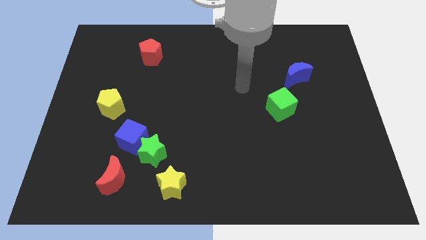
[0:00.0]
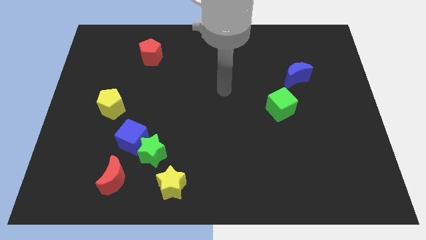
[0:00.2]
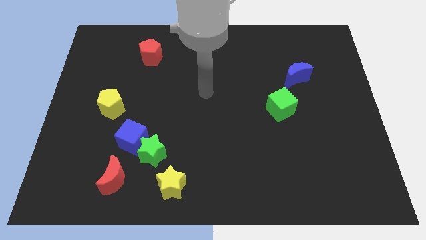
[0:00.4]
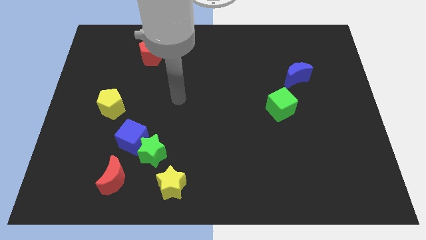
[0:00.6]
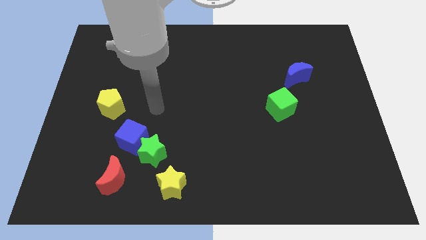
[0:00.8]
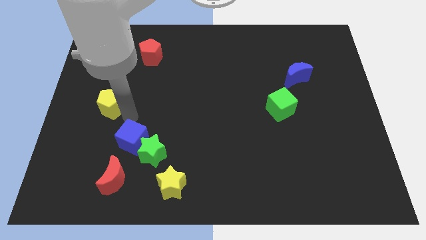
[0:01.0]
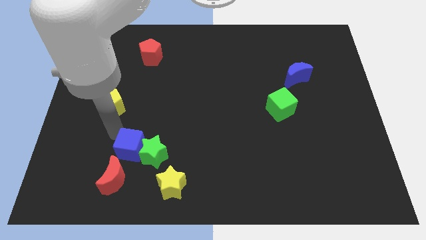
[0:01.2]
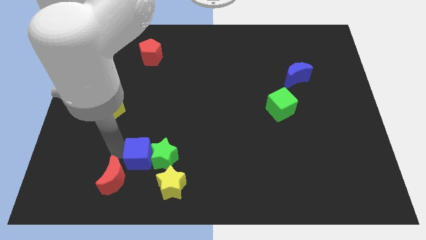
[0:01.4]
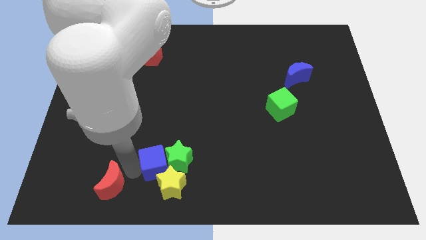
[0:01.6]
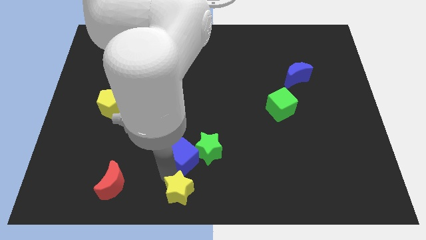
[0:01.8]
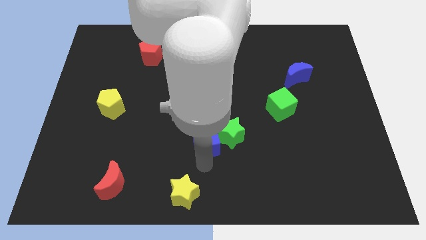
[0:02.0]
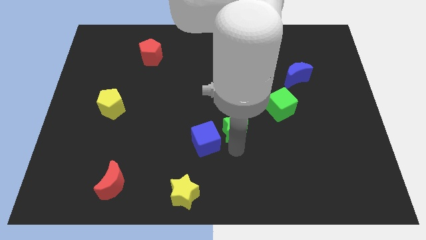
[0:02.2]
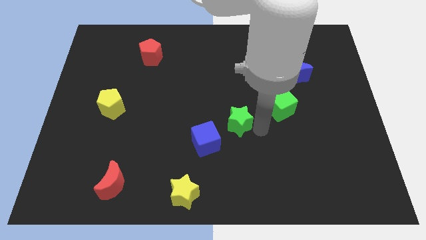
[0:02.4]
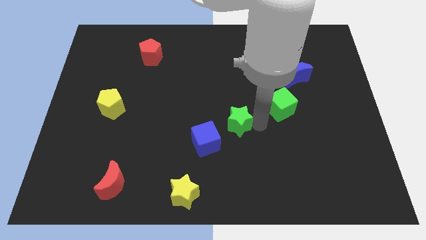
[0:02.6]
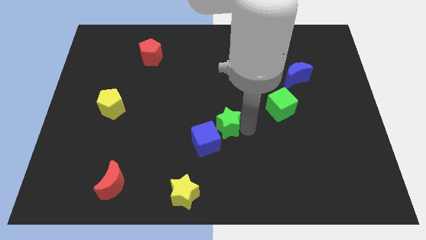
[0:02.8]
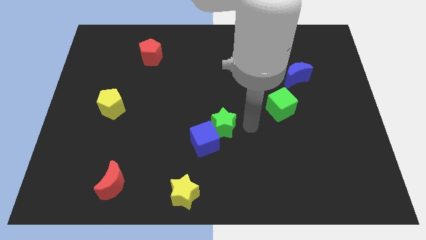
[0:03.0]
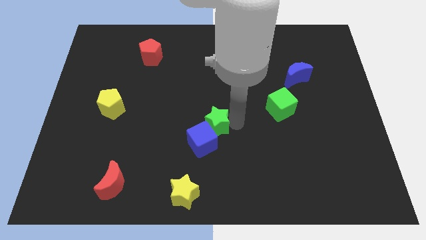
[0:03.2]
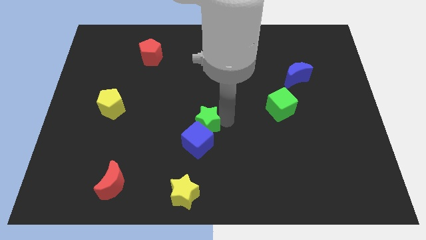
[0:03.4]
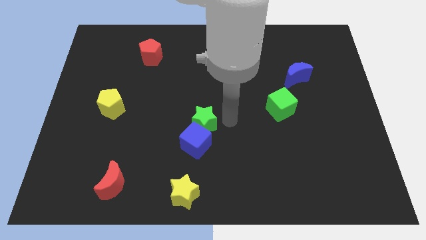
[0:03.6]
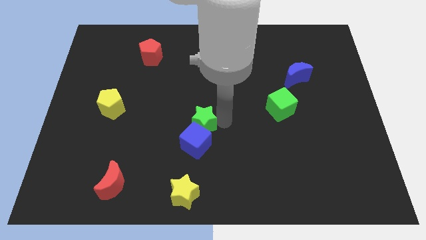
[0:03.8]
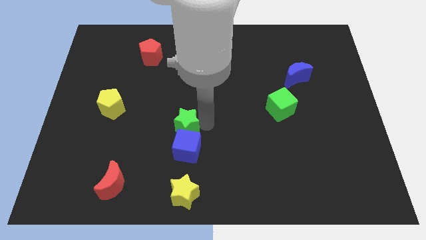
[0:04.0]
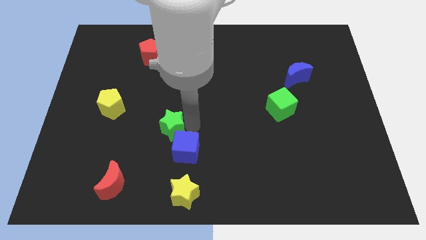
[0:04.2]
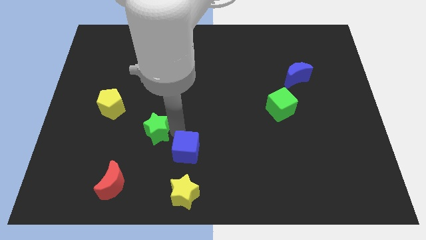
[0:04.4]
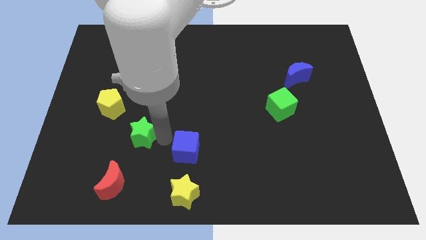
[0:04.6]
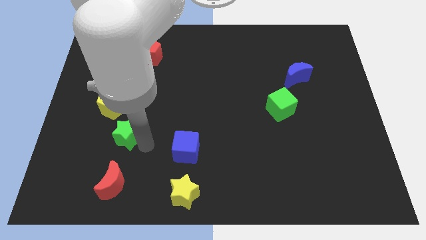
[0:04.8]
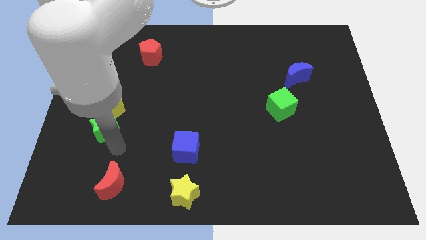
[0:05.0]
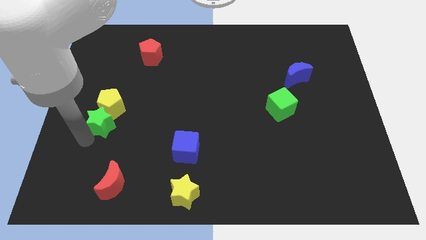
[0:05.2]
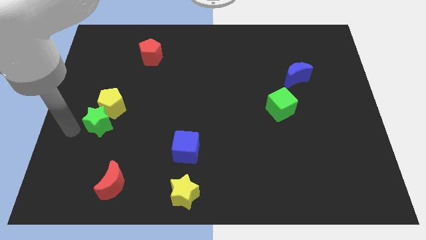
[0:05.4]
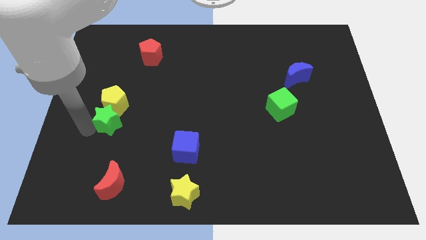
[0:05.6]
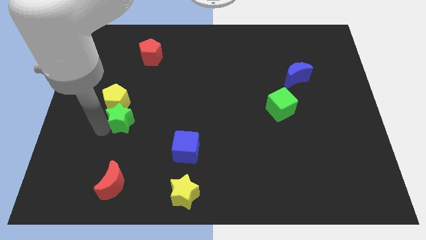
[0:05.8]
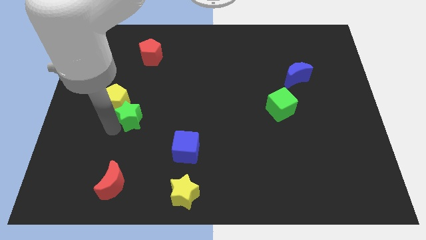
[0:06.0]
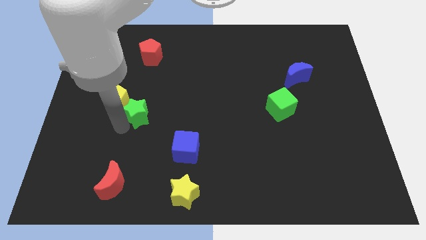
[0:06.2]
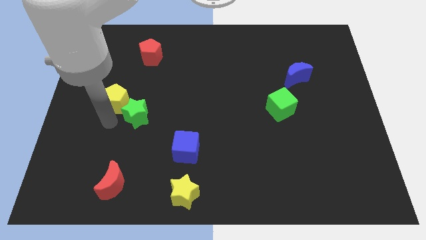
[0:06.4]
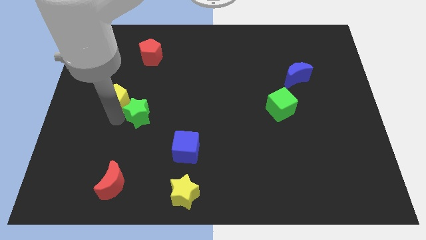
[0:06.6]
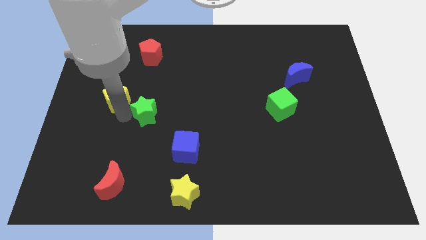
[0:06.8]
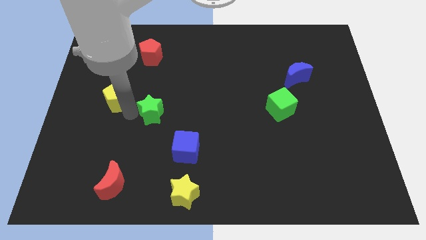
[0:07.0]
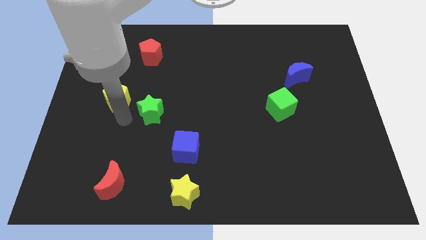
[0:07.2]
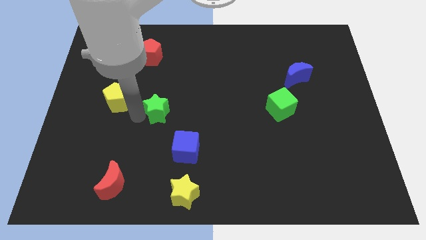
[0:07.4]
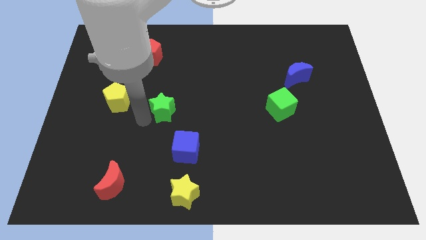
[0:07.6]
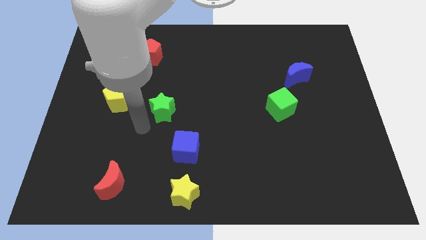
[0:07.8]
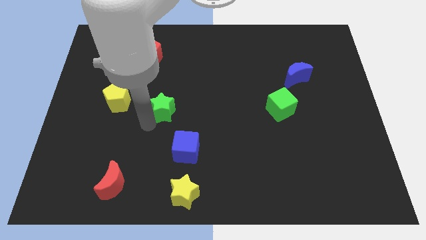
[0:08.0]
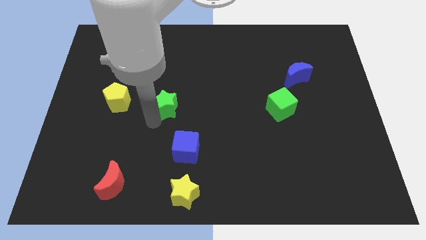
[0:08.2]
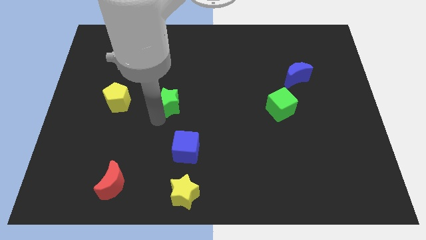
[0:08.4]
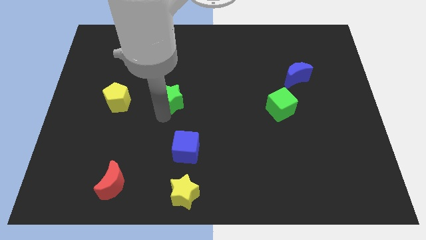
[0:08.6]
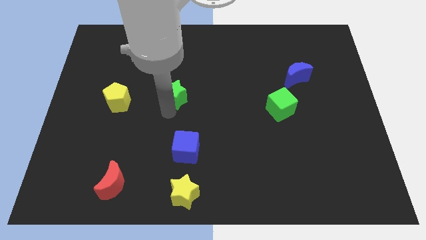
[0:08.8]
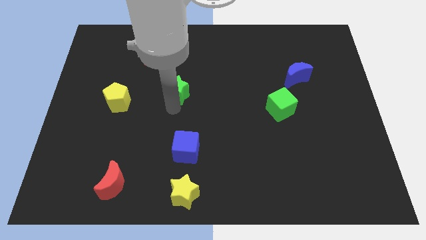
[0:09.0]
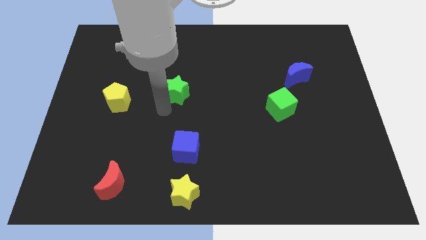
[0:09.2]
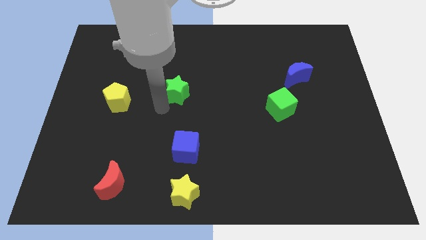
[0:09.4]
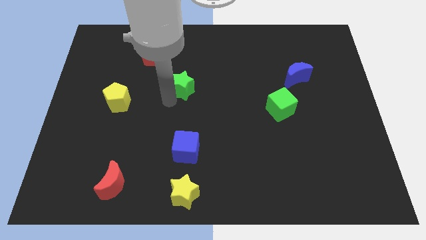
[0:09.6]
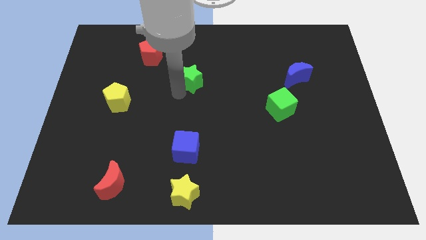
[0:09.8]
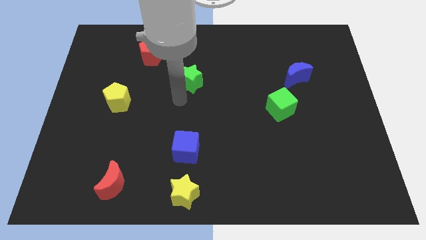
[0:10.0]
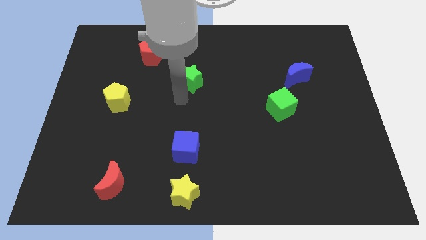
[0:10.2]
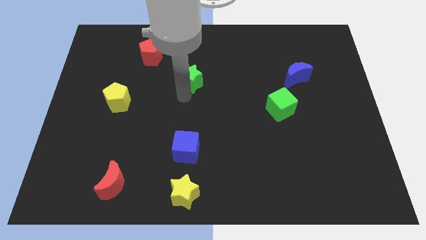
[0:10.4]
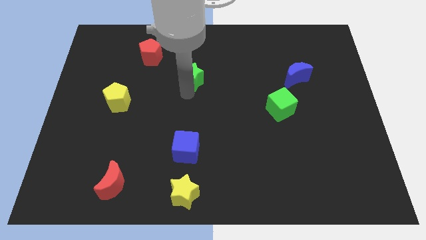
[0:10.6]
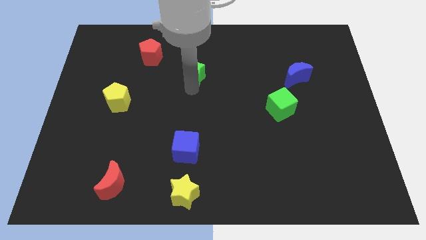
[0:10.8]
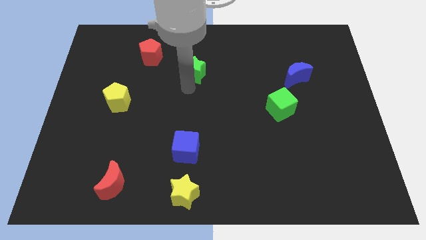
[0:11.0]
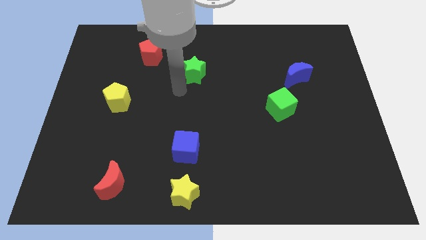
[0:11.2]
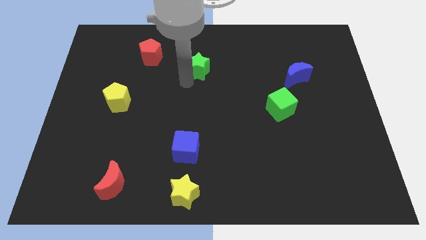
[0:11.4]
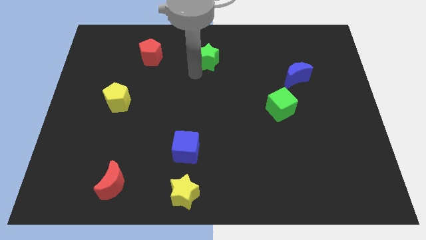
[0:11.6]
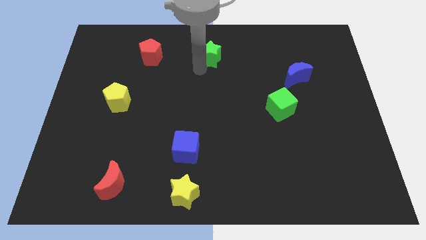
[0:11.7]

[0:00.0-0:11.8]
put the green star to the top

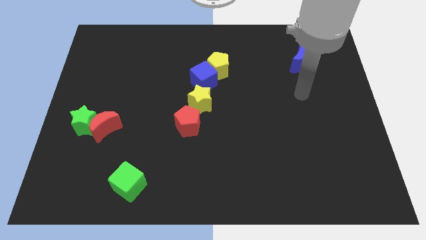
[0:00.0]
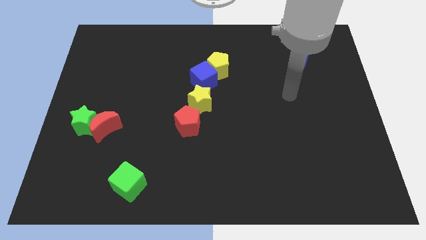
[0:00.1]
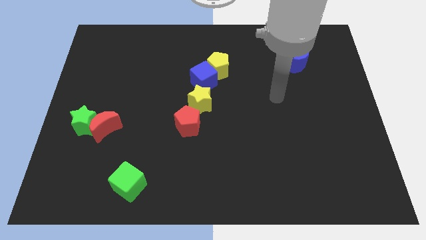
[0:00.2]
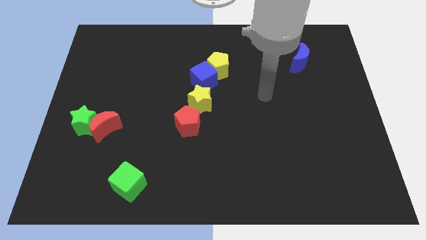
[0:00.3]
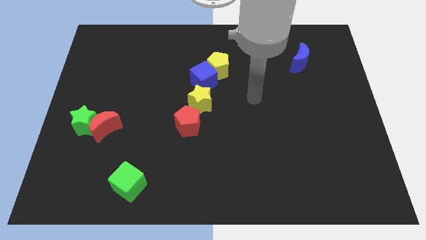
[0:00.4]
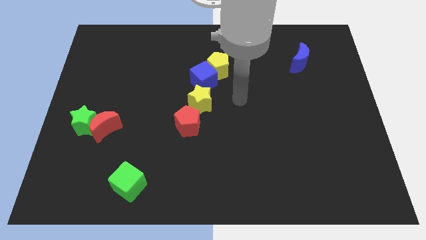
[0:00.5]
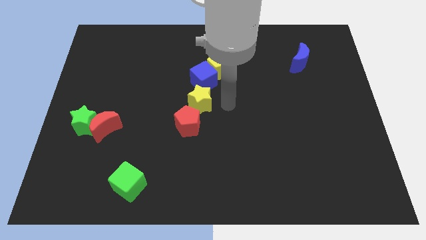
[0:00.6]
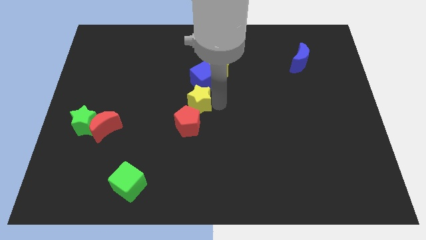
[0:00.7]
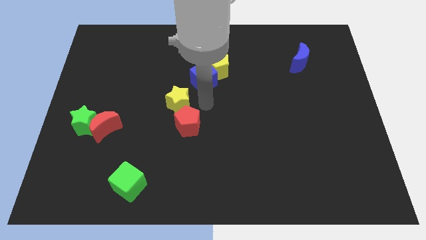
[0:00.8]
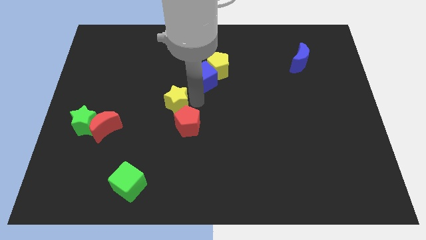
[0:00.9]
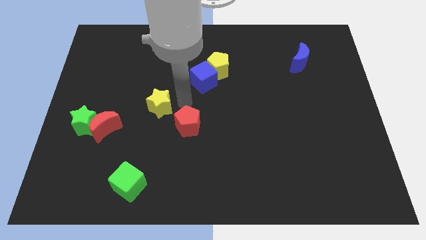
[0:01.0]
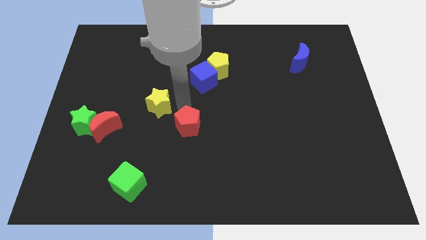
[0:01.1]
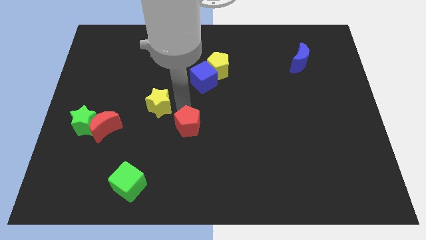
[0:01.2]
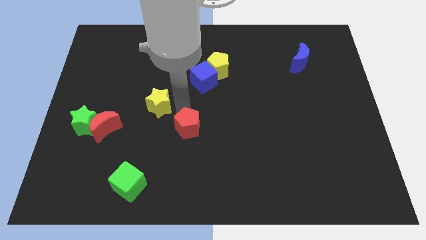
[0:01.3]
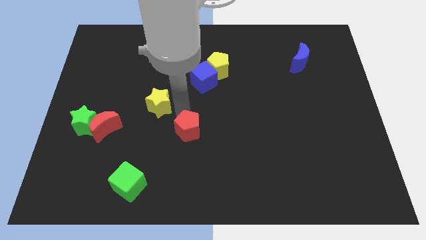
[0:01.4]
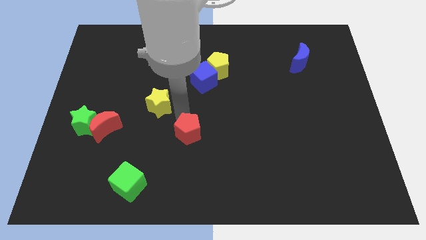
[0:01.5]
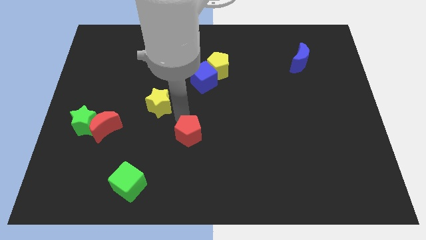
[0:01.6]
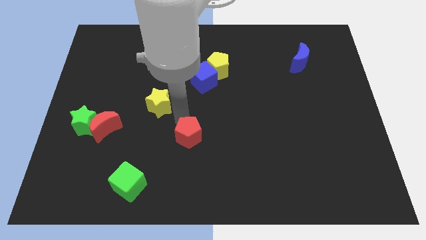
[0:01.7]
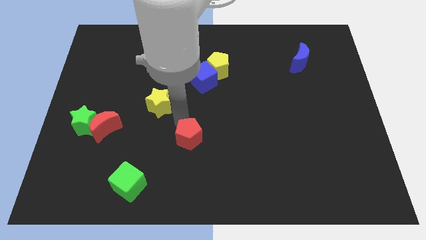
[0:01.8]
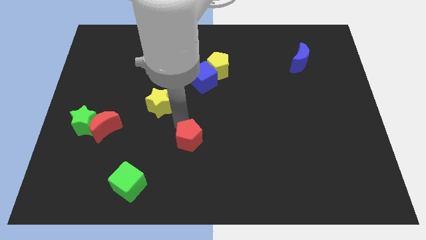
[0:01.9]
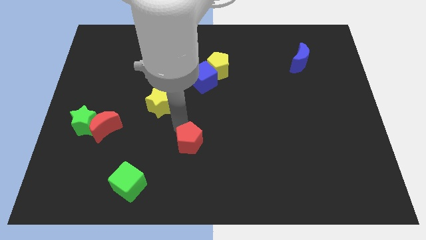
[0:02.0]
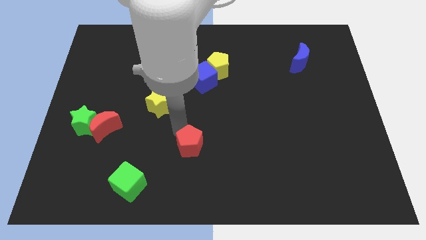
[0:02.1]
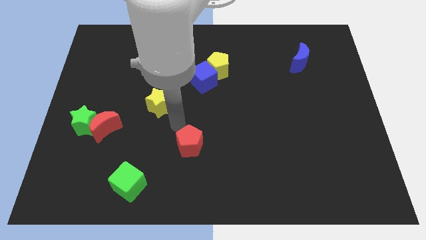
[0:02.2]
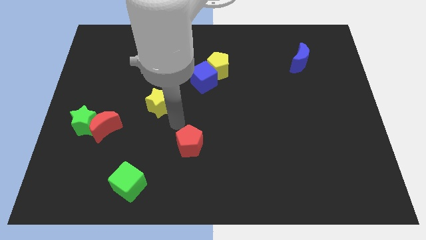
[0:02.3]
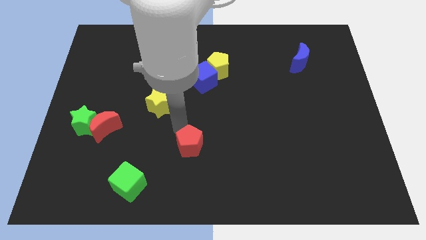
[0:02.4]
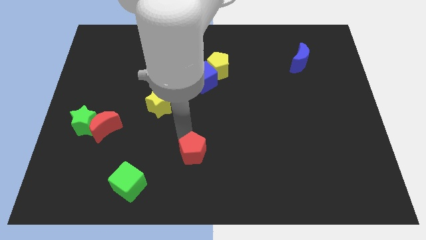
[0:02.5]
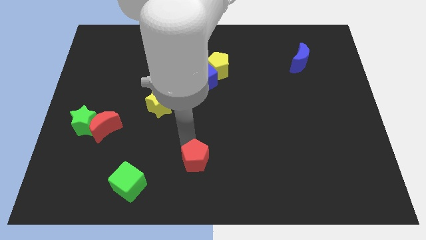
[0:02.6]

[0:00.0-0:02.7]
move the red pentagon to the bottom side
